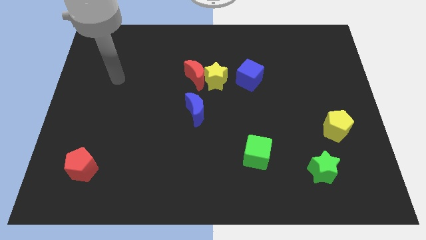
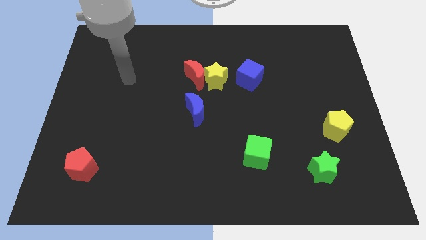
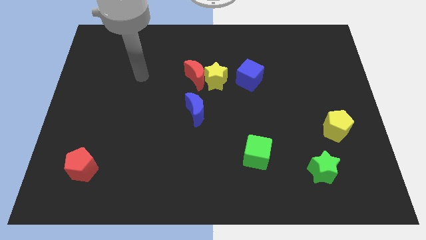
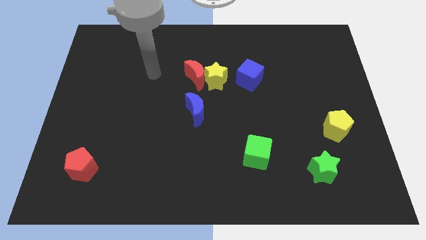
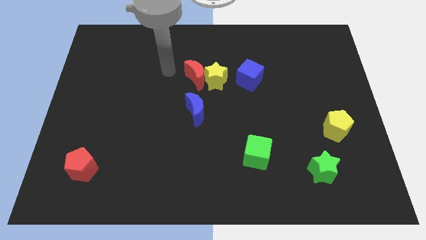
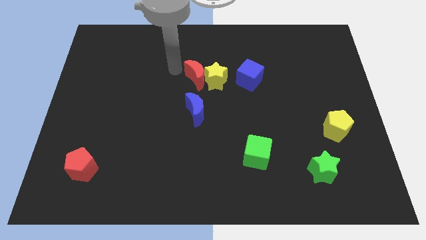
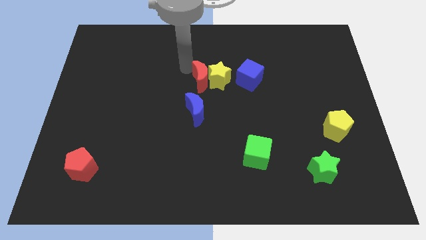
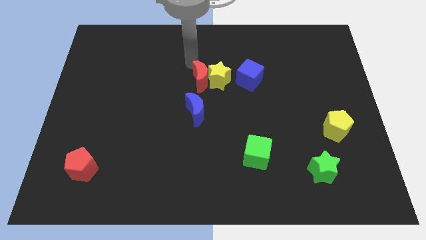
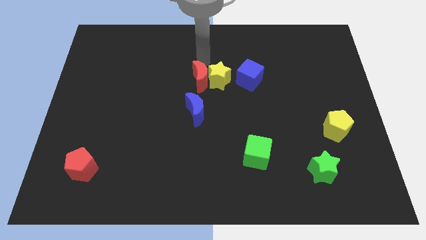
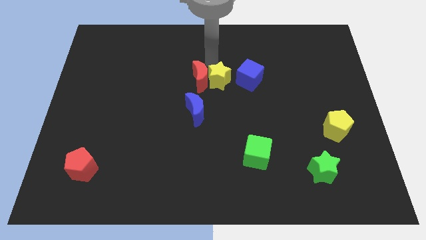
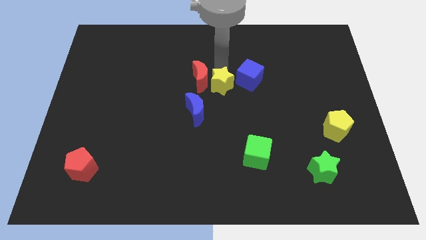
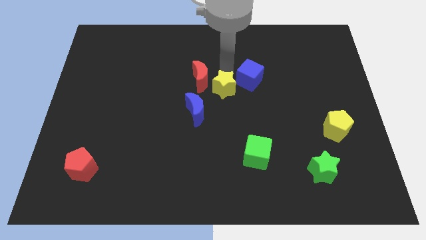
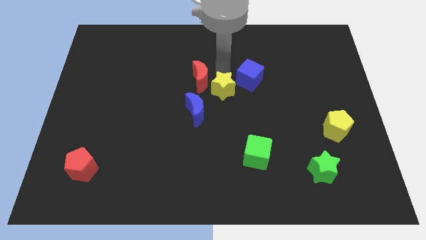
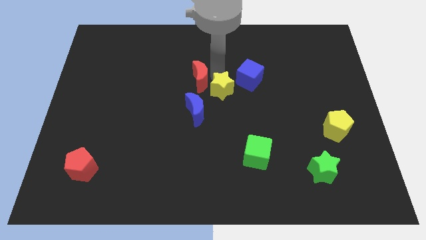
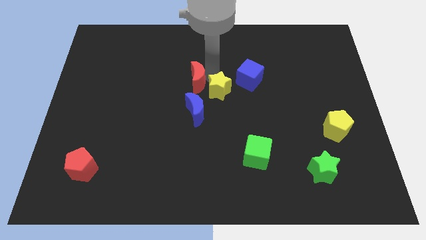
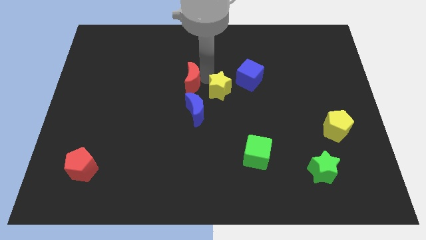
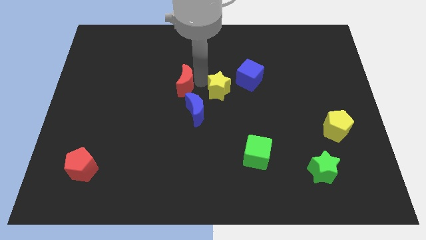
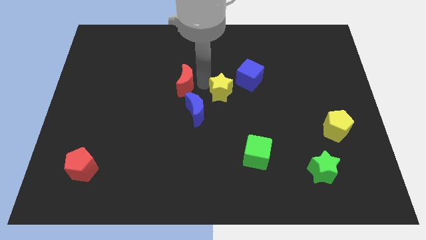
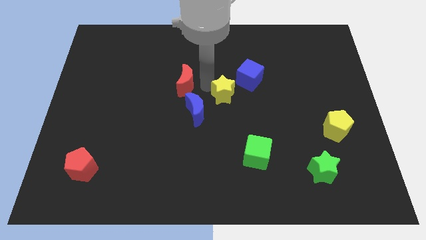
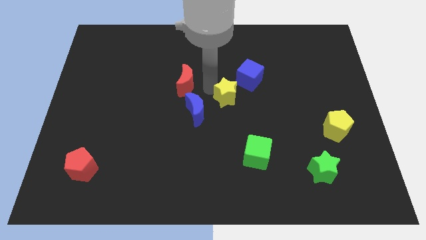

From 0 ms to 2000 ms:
move the red moon away from the yellow star

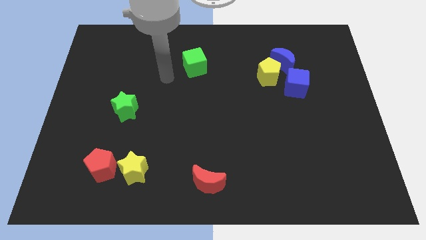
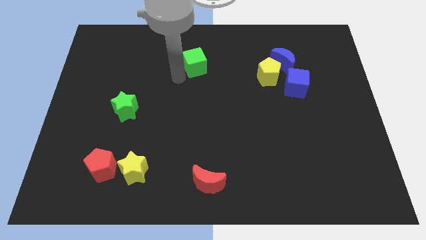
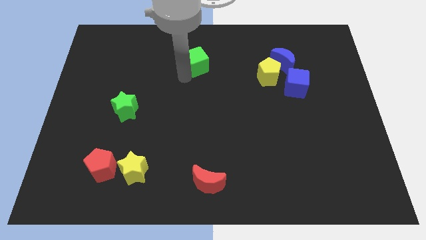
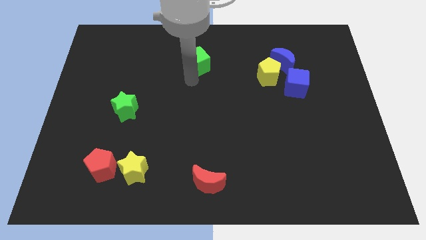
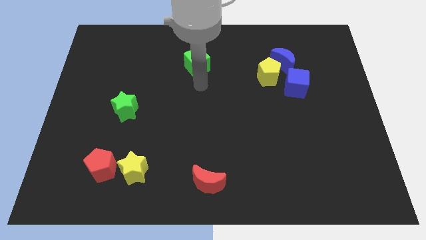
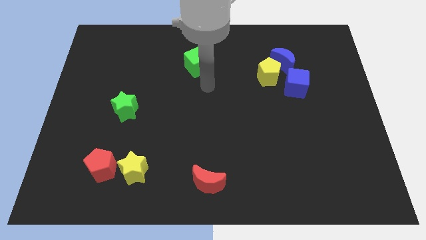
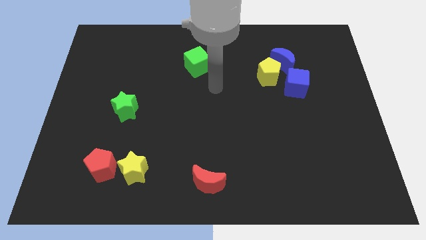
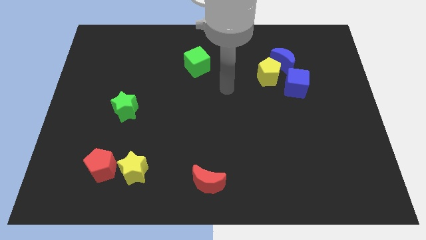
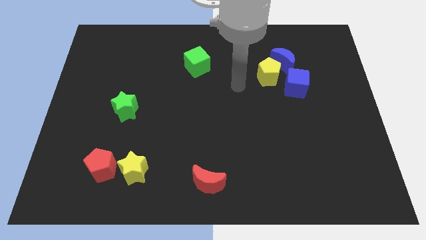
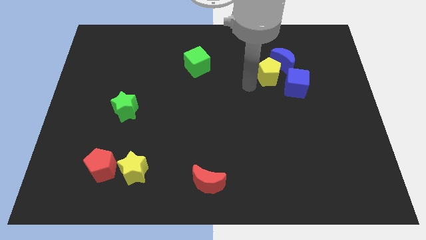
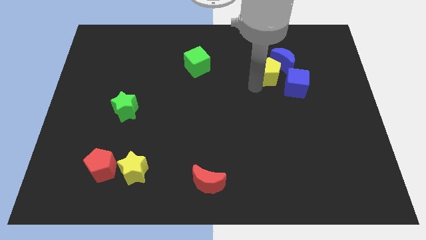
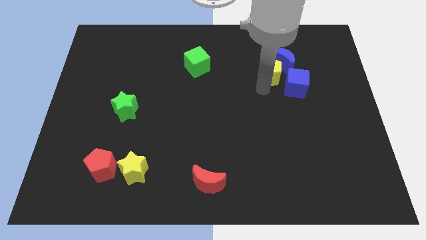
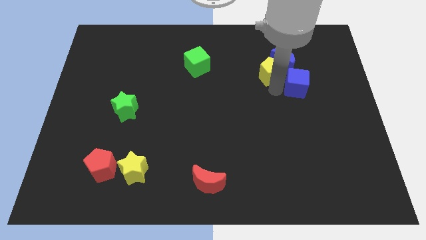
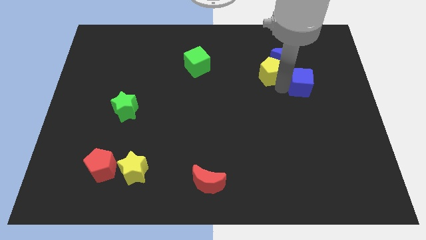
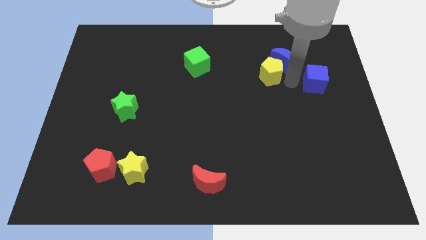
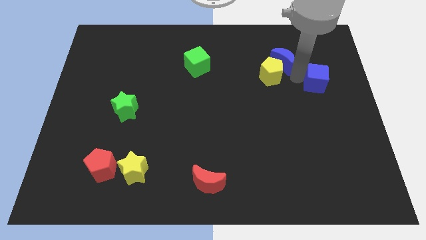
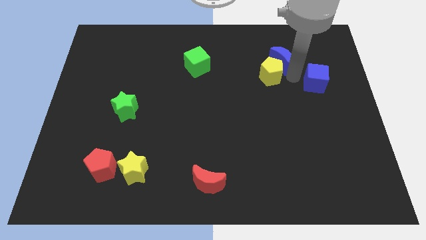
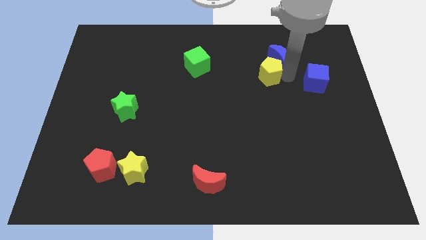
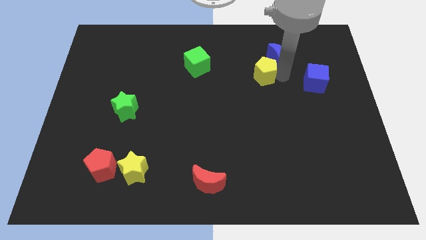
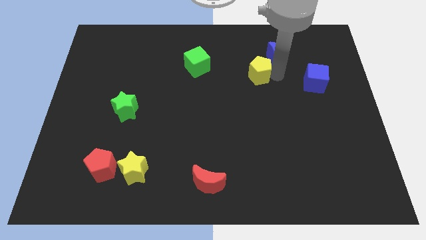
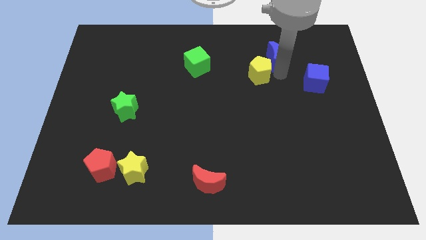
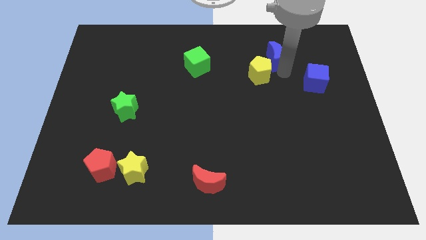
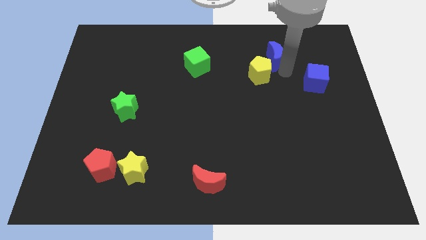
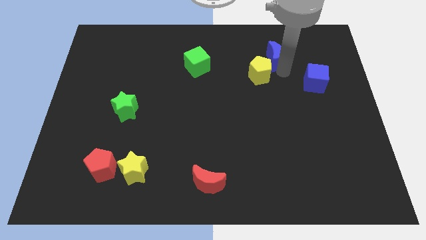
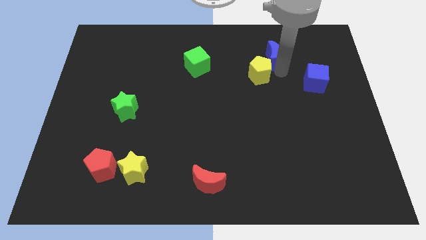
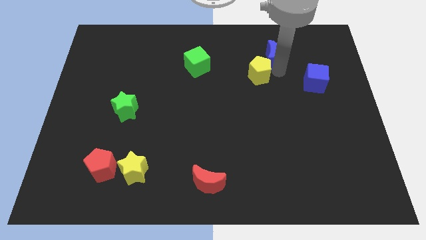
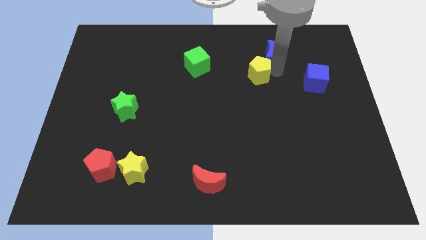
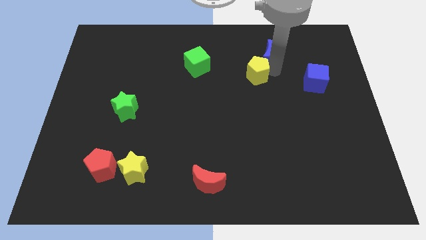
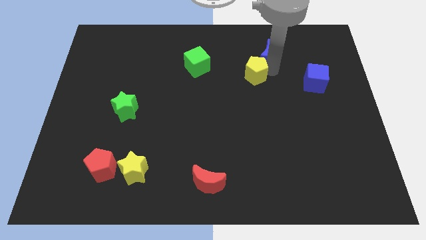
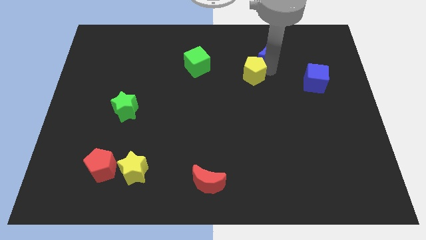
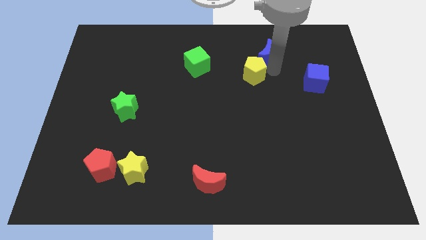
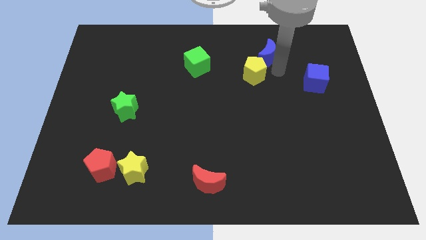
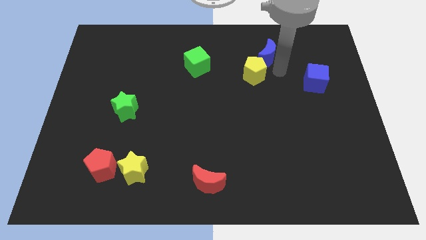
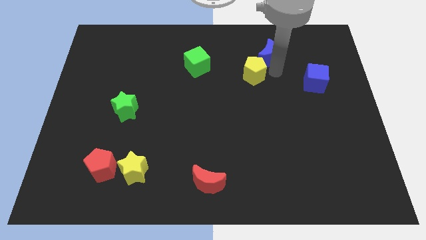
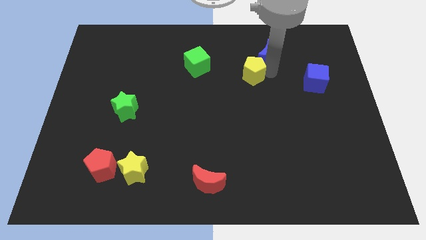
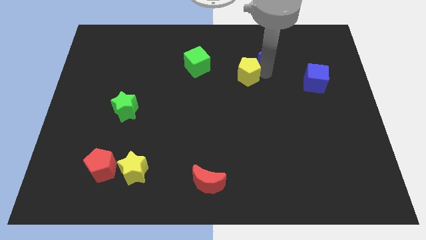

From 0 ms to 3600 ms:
pull the yellow pentagon apart from the blue moon and blue cube

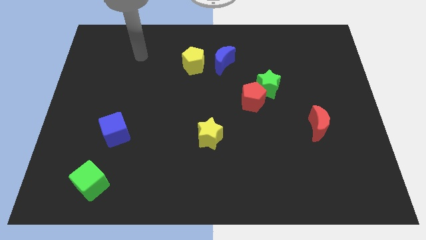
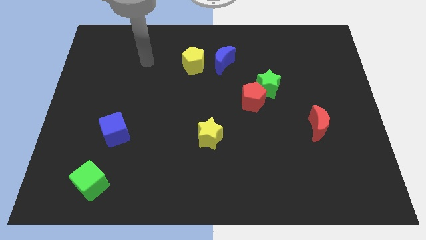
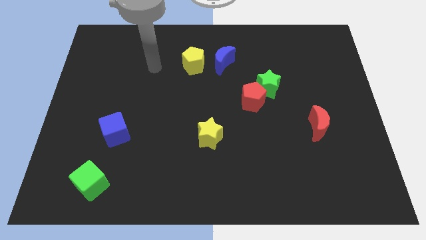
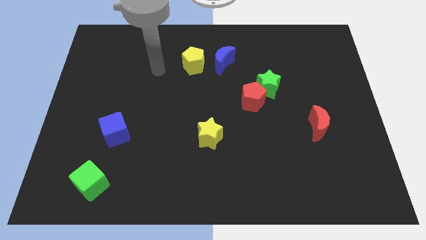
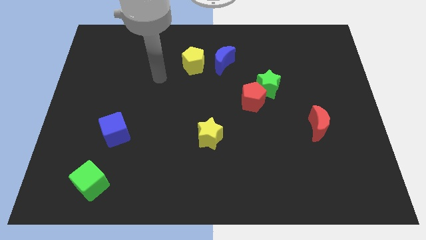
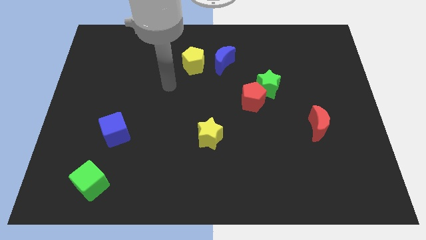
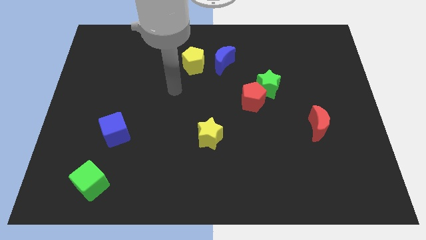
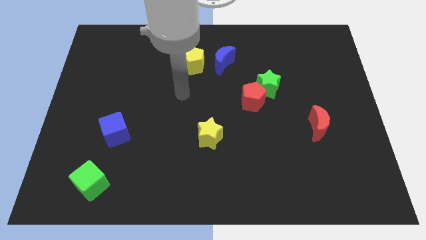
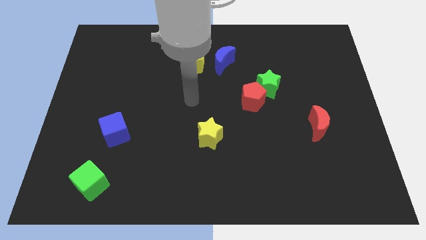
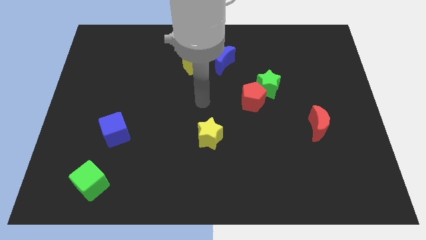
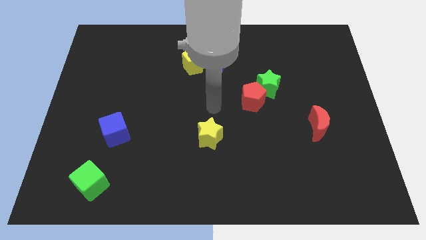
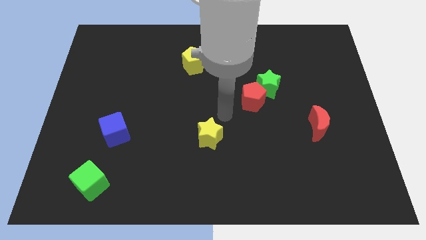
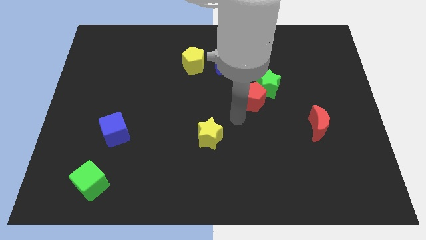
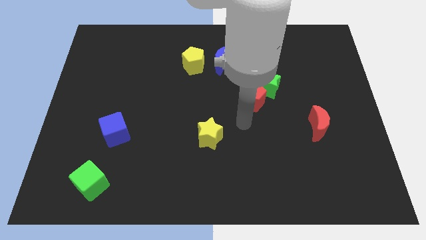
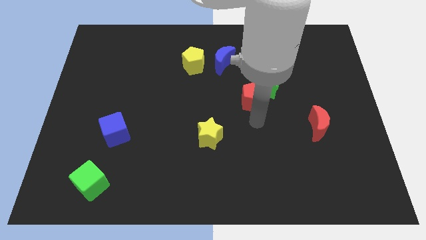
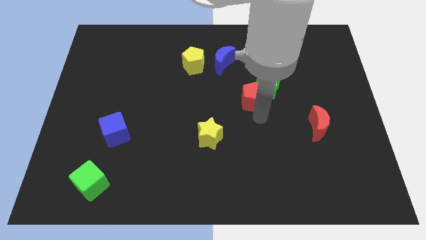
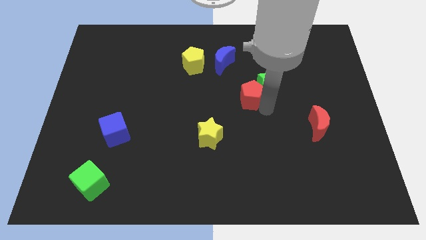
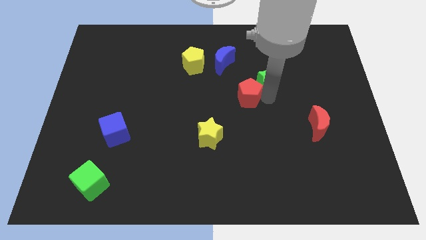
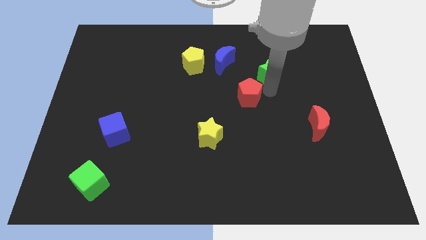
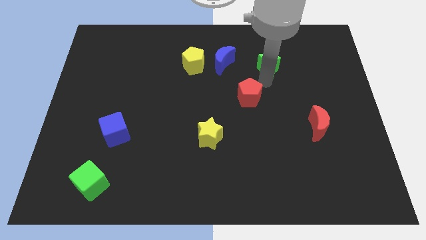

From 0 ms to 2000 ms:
pull the red pentagon apart from the green star

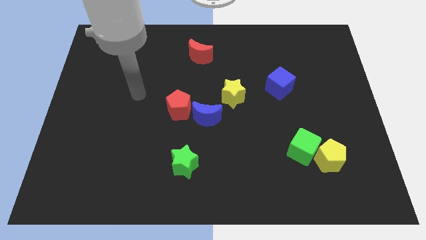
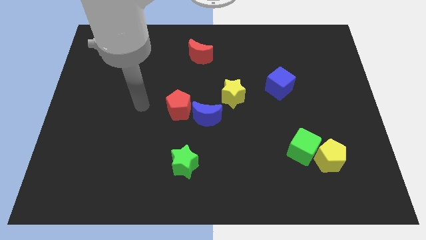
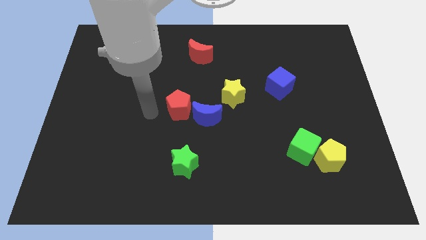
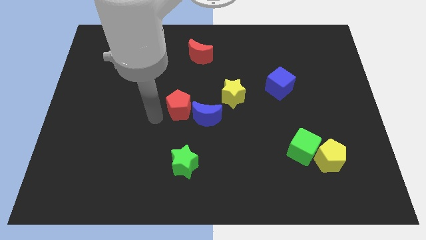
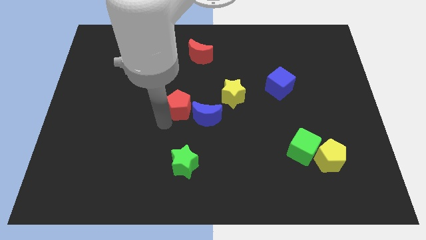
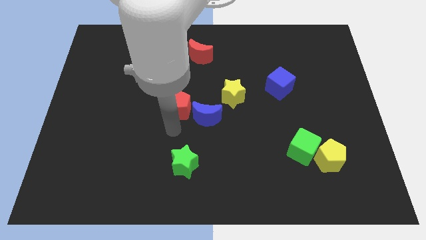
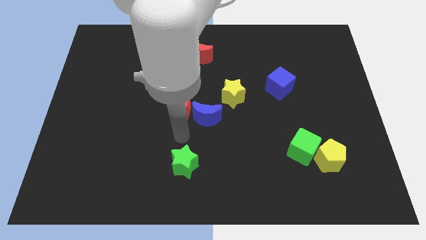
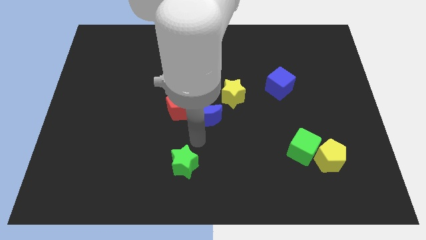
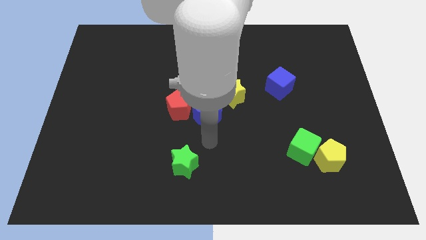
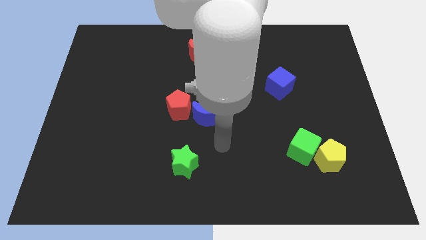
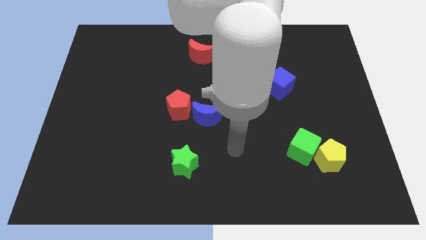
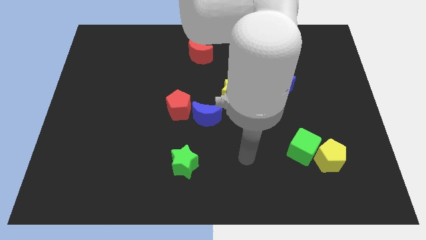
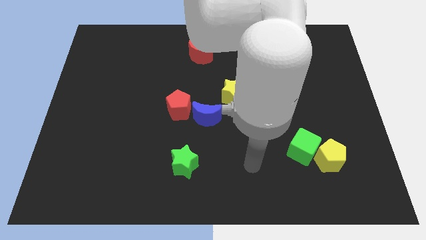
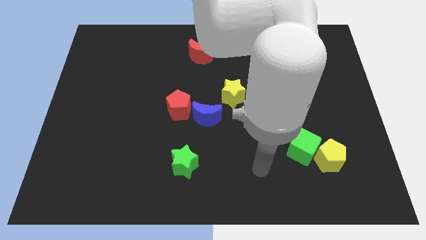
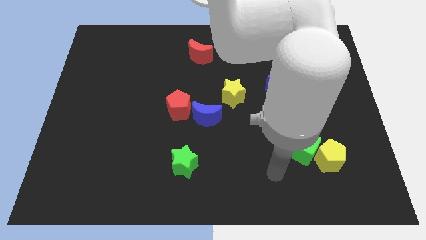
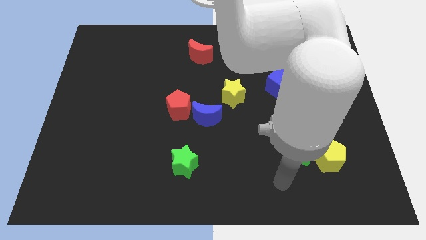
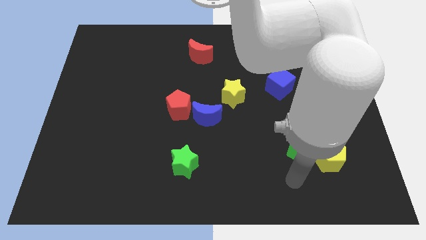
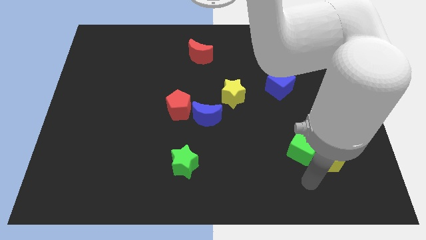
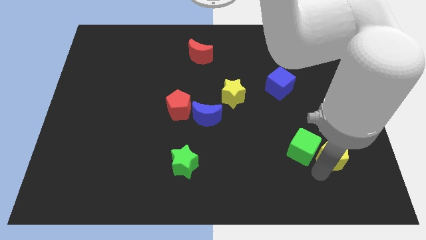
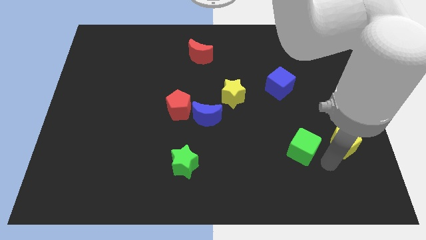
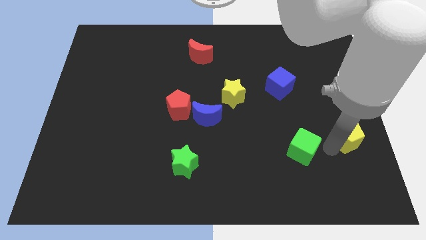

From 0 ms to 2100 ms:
separate the green cube from the yellow pentagon
